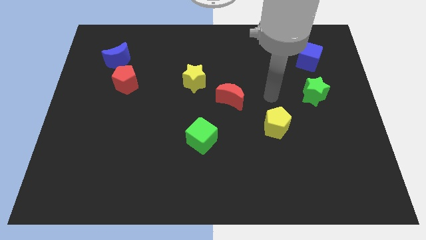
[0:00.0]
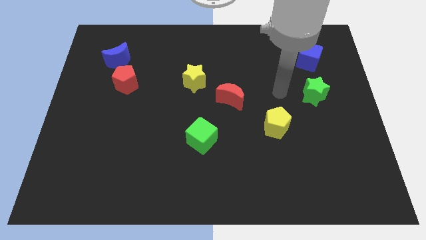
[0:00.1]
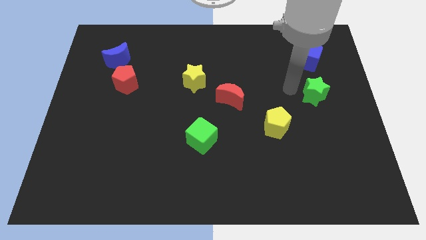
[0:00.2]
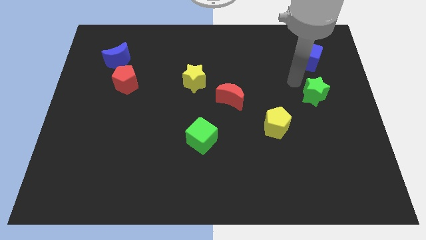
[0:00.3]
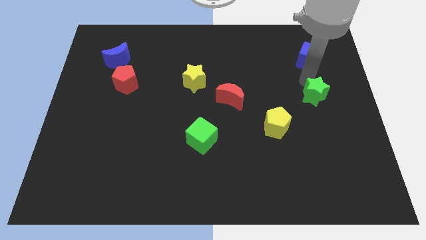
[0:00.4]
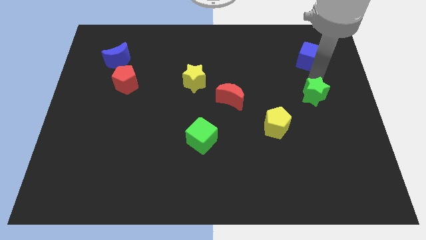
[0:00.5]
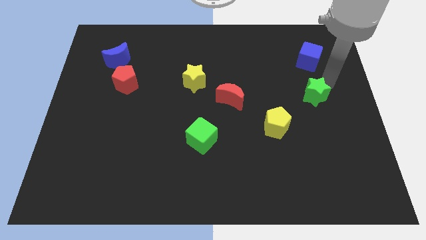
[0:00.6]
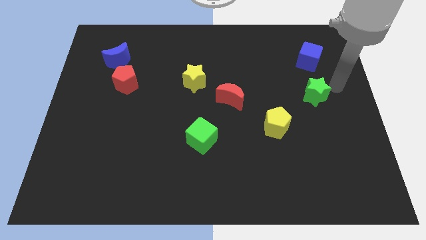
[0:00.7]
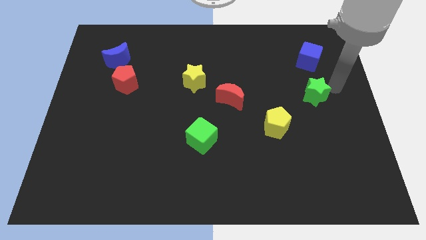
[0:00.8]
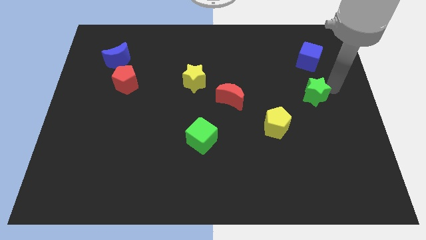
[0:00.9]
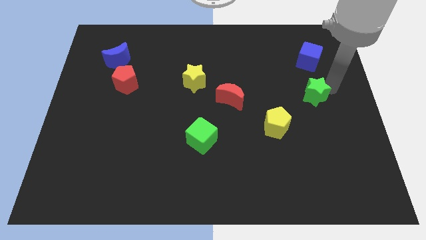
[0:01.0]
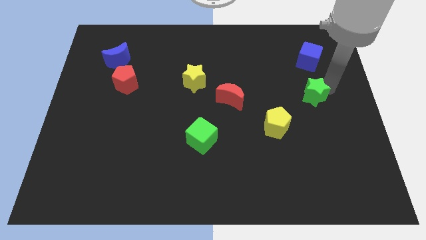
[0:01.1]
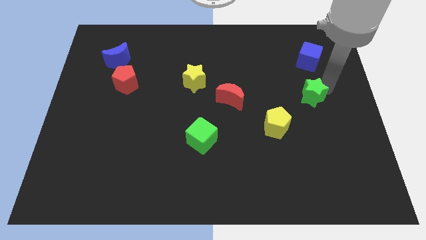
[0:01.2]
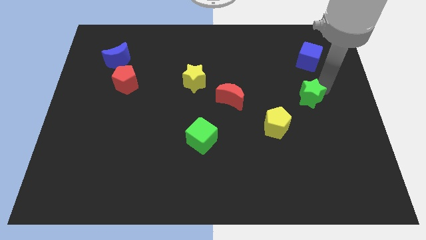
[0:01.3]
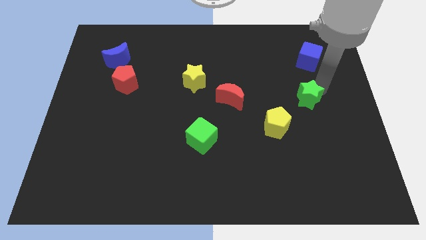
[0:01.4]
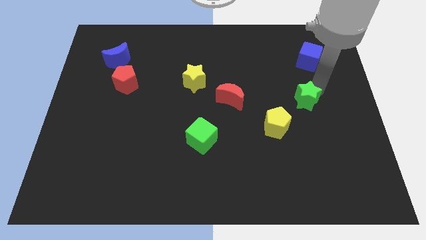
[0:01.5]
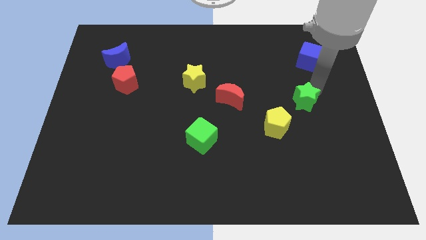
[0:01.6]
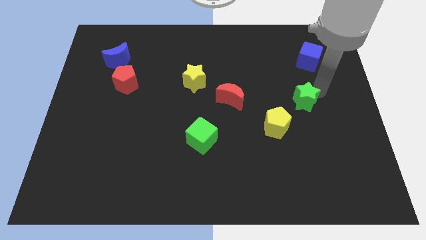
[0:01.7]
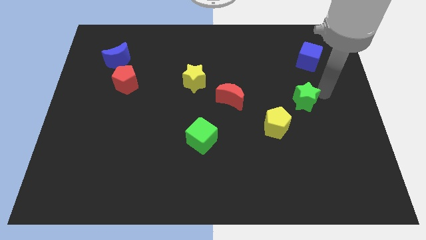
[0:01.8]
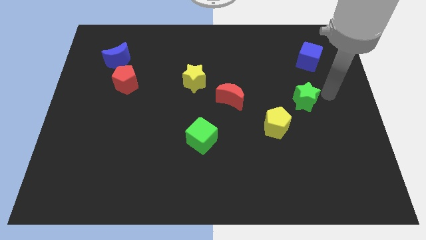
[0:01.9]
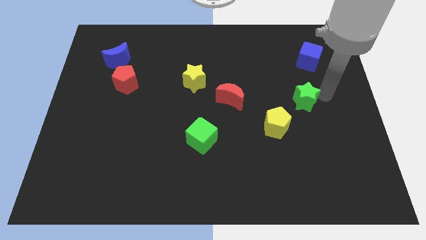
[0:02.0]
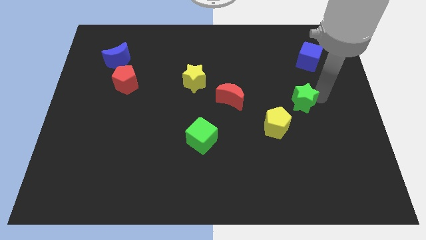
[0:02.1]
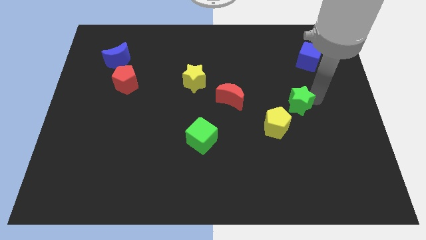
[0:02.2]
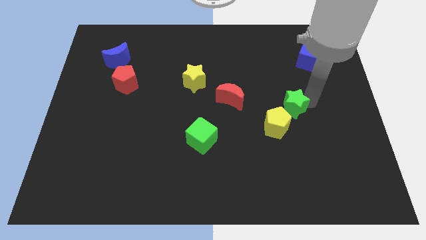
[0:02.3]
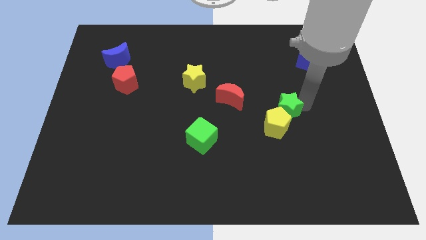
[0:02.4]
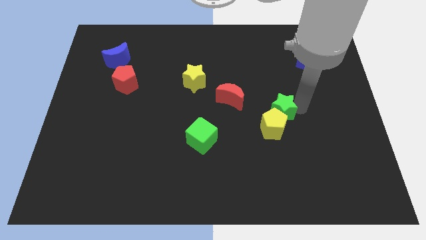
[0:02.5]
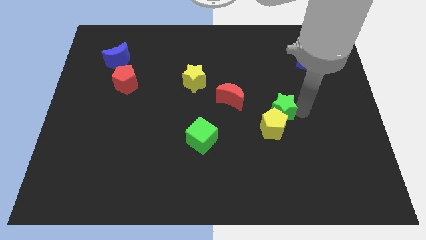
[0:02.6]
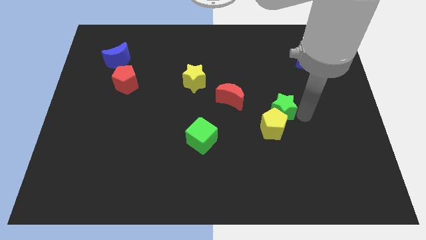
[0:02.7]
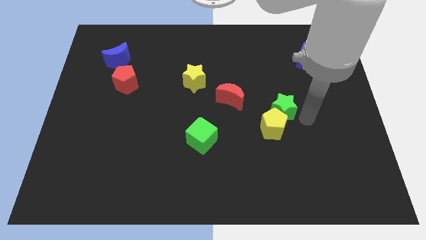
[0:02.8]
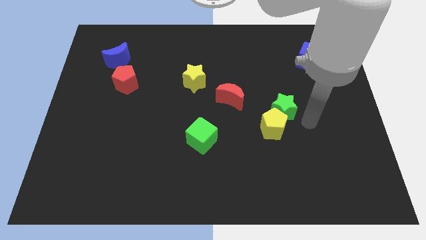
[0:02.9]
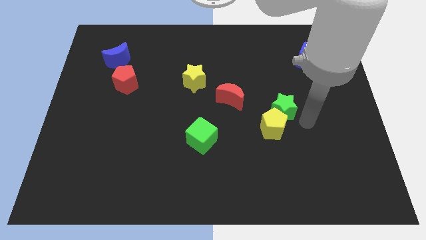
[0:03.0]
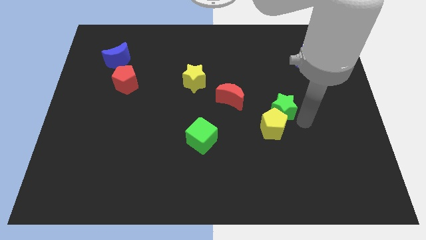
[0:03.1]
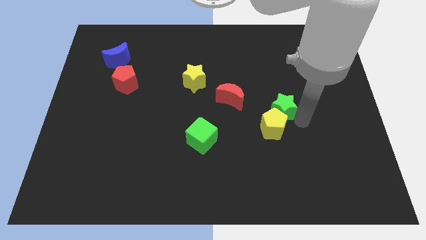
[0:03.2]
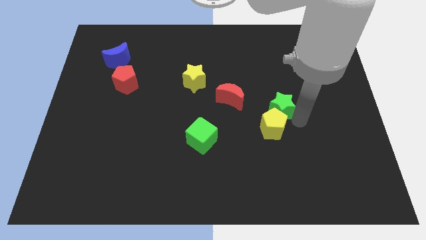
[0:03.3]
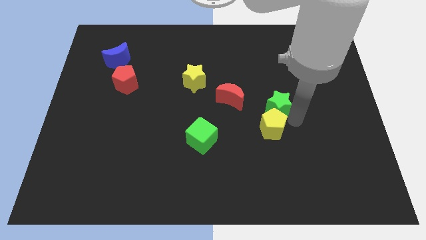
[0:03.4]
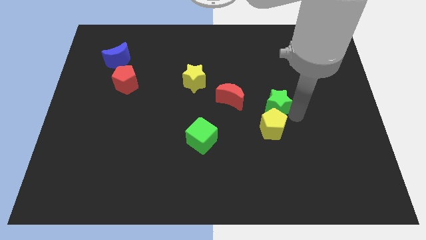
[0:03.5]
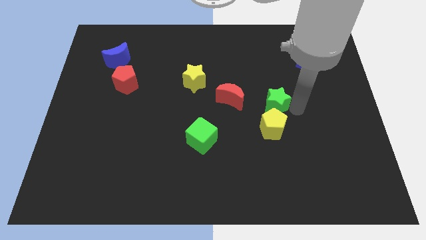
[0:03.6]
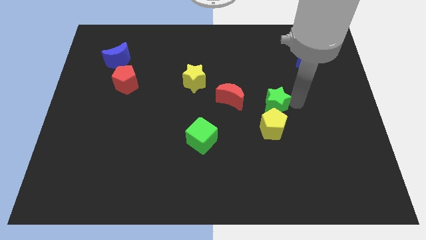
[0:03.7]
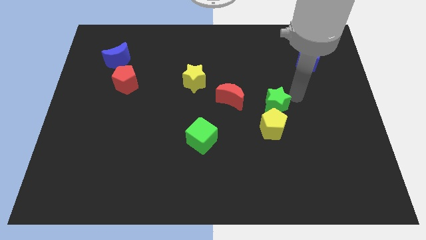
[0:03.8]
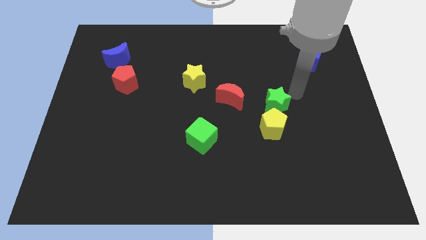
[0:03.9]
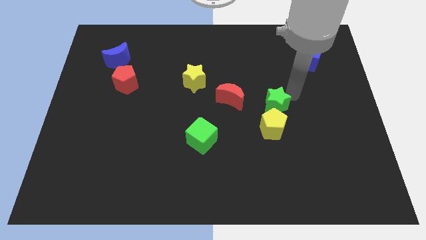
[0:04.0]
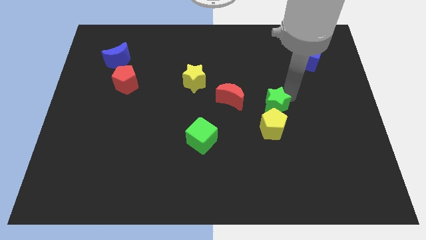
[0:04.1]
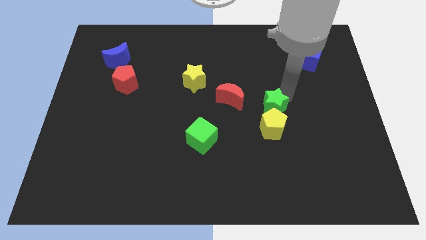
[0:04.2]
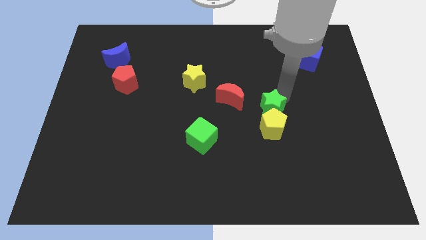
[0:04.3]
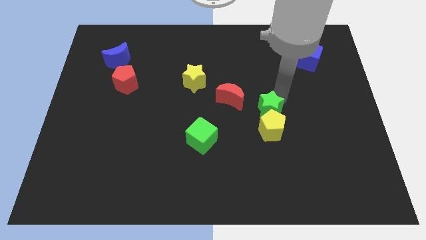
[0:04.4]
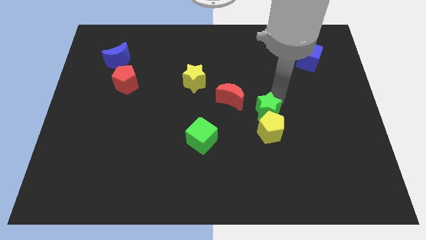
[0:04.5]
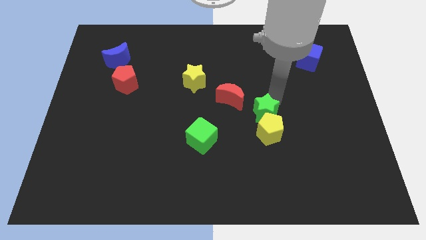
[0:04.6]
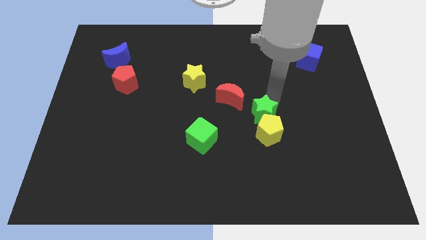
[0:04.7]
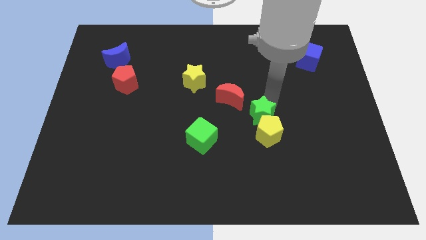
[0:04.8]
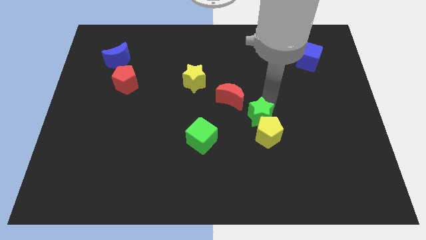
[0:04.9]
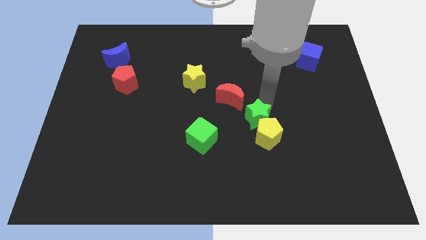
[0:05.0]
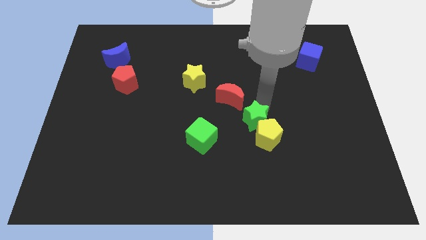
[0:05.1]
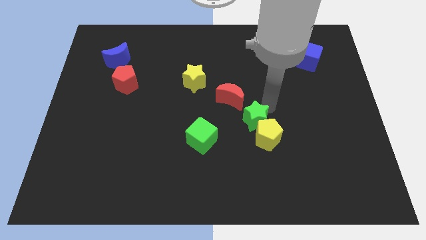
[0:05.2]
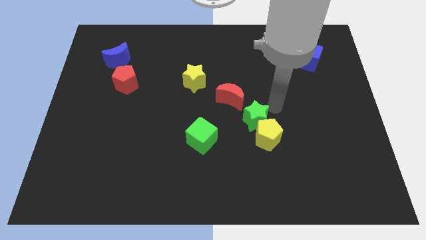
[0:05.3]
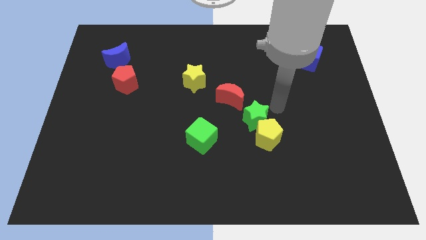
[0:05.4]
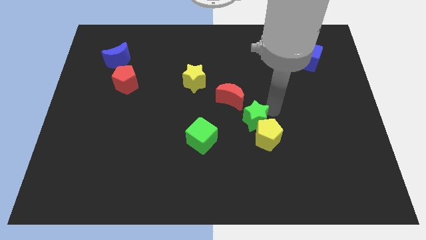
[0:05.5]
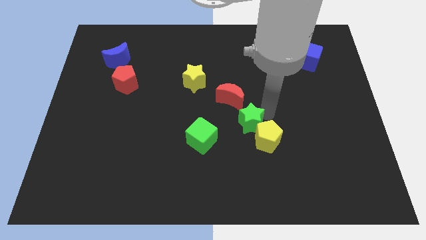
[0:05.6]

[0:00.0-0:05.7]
move the green star to the bottom side of the red moon
